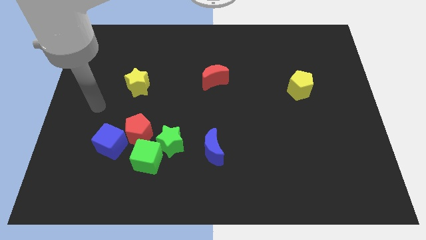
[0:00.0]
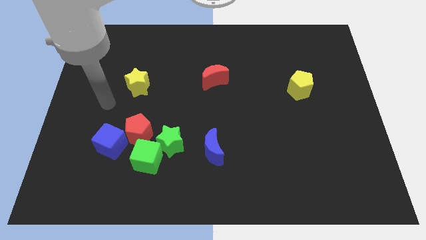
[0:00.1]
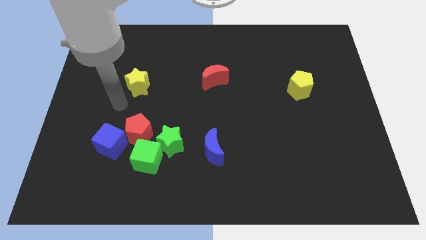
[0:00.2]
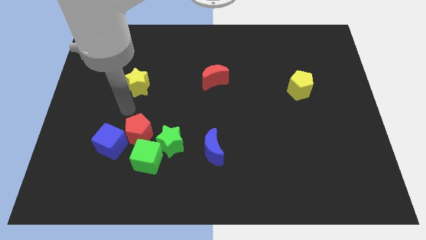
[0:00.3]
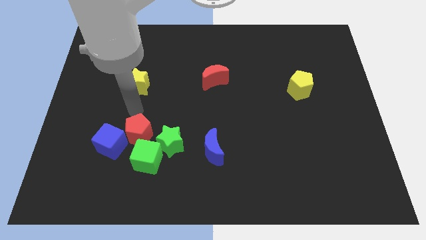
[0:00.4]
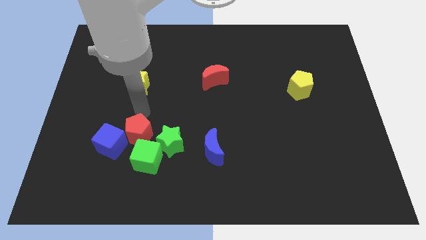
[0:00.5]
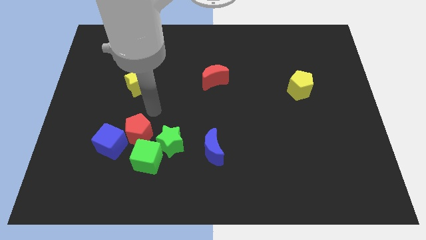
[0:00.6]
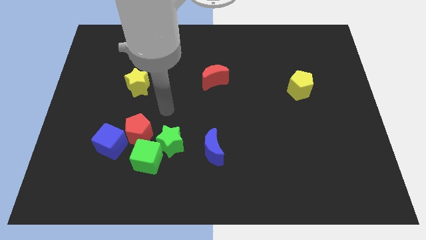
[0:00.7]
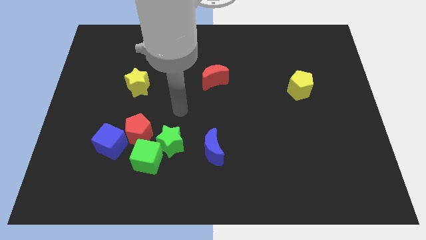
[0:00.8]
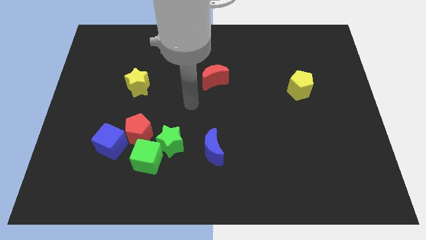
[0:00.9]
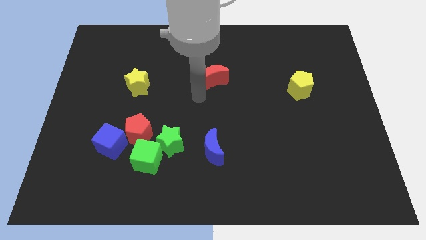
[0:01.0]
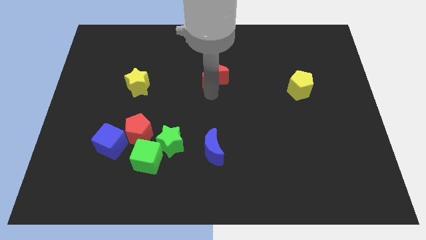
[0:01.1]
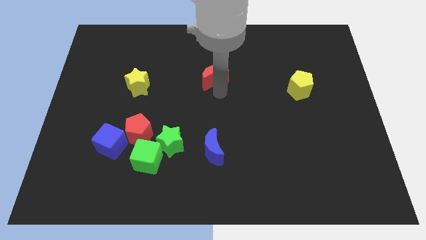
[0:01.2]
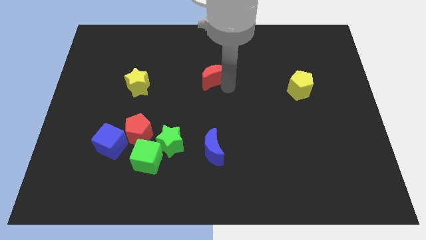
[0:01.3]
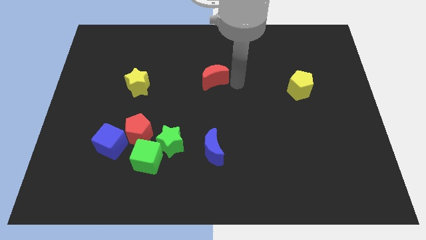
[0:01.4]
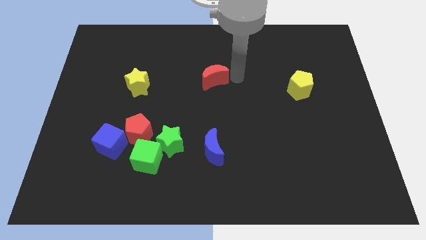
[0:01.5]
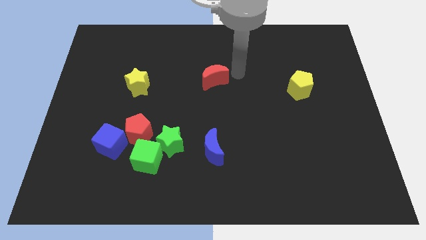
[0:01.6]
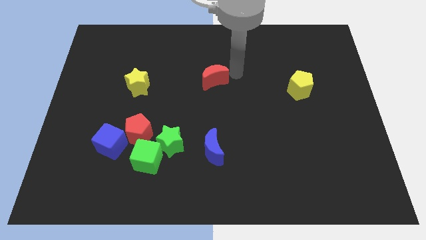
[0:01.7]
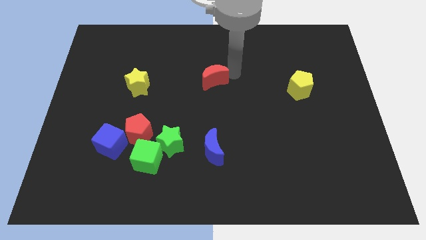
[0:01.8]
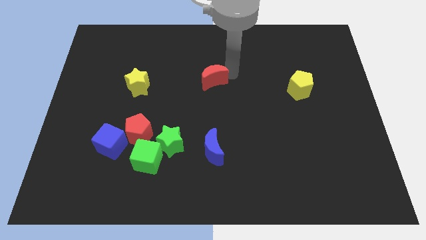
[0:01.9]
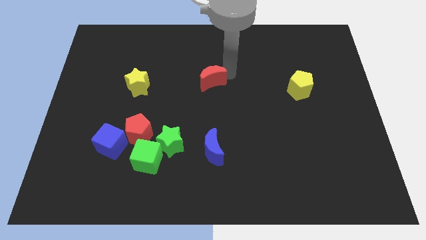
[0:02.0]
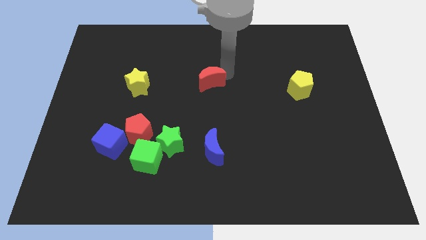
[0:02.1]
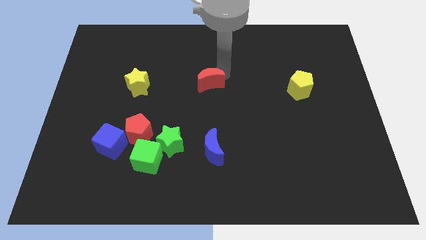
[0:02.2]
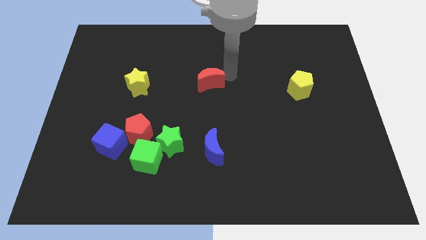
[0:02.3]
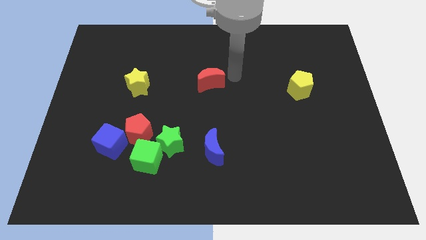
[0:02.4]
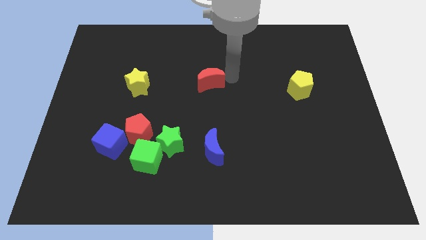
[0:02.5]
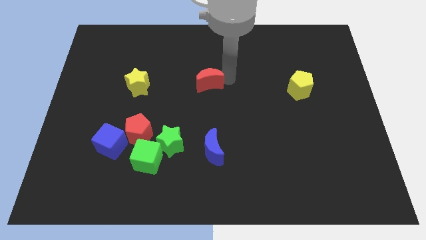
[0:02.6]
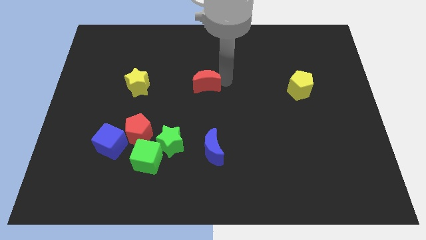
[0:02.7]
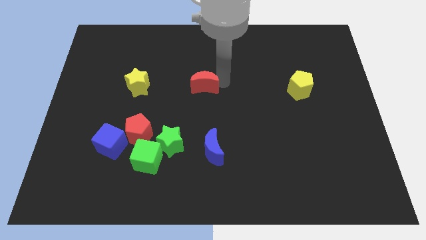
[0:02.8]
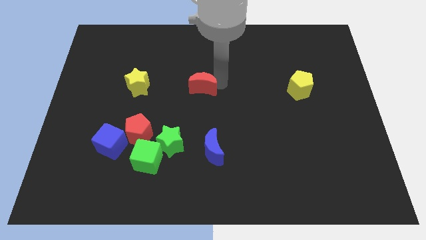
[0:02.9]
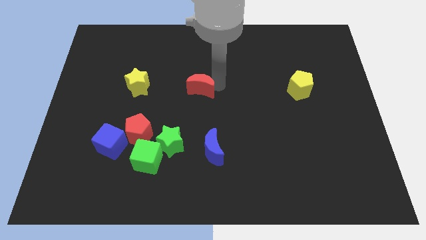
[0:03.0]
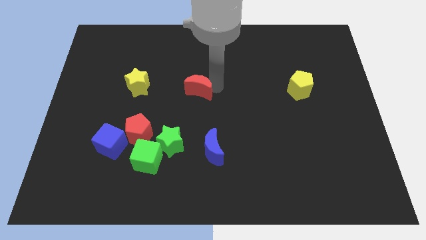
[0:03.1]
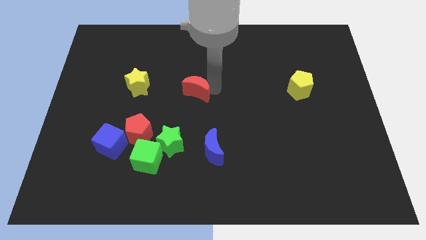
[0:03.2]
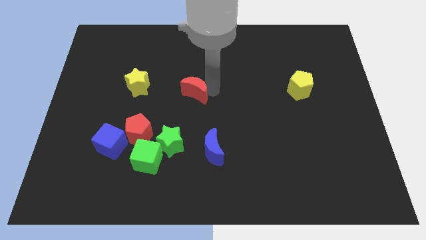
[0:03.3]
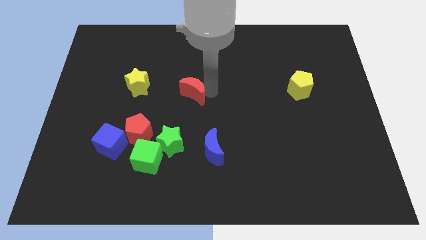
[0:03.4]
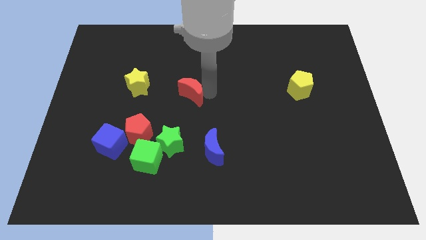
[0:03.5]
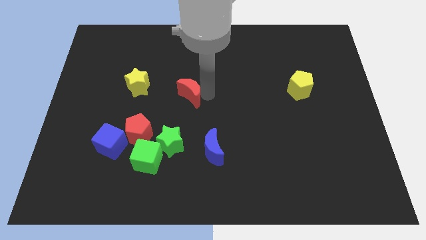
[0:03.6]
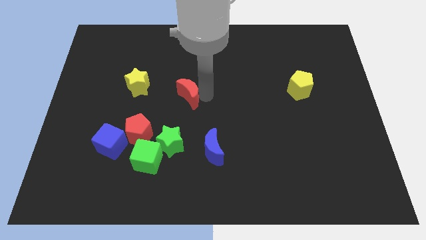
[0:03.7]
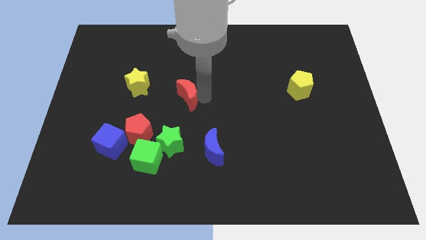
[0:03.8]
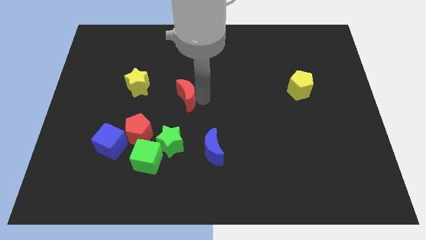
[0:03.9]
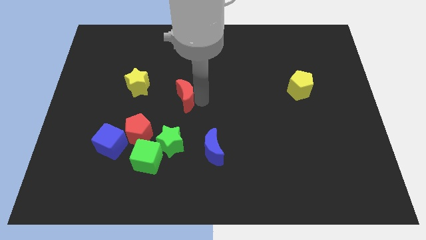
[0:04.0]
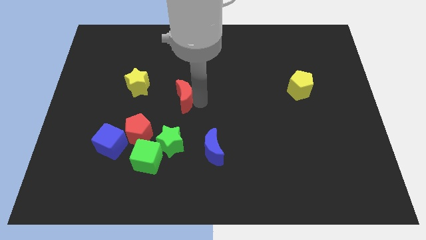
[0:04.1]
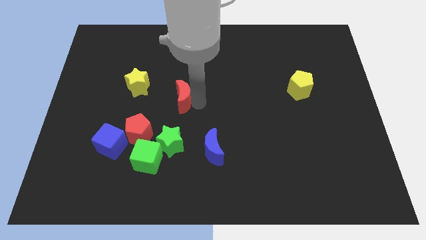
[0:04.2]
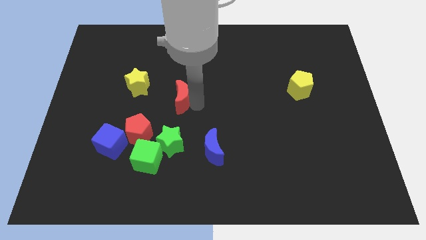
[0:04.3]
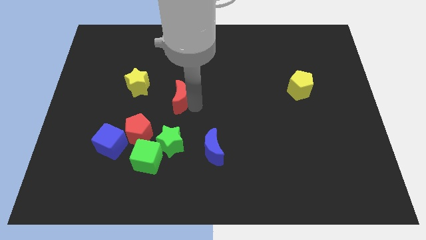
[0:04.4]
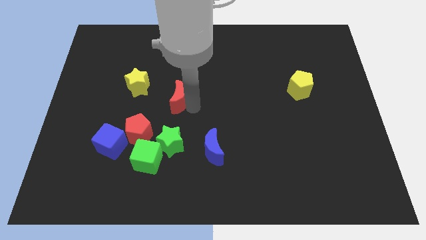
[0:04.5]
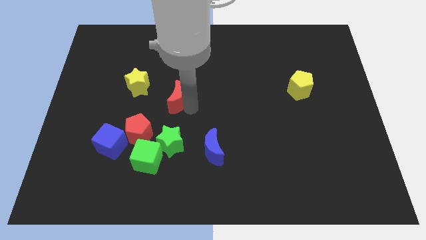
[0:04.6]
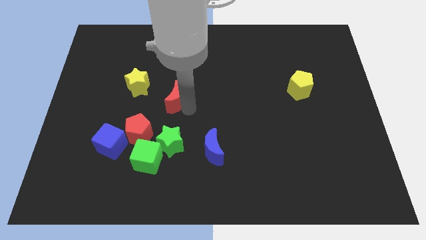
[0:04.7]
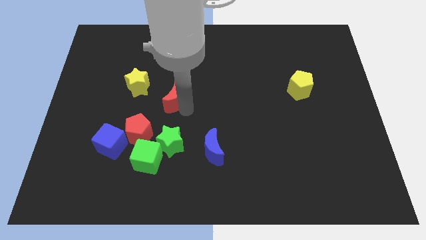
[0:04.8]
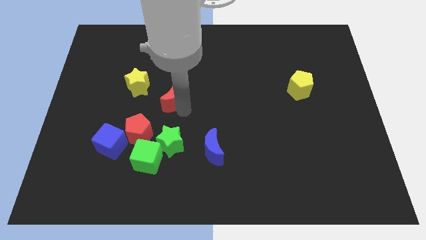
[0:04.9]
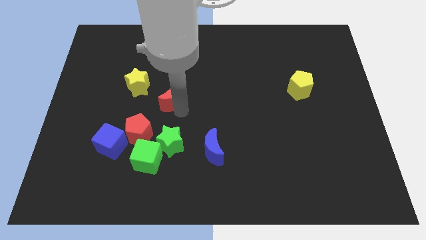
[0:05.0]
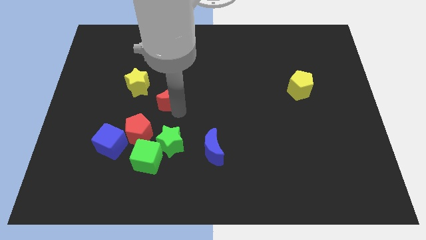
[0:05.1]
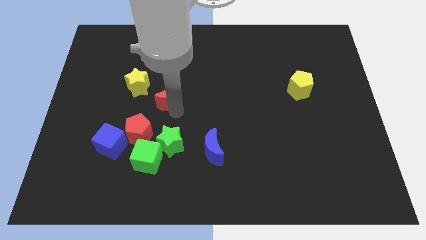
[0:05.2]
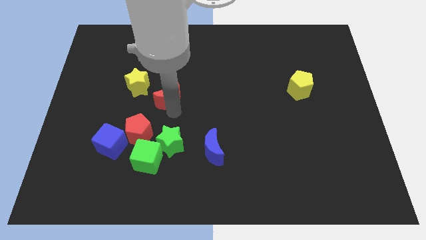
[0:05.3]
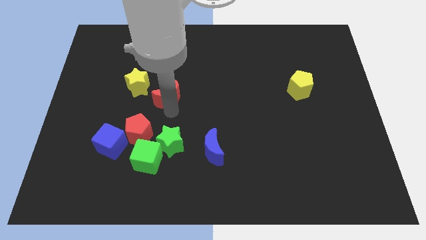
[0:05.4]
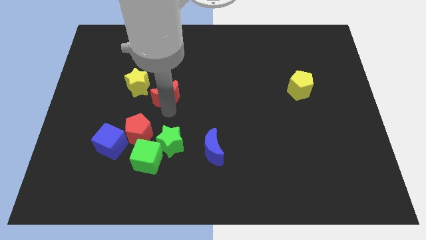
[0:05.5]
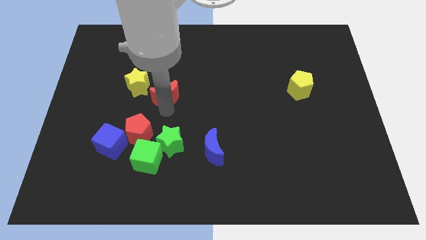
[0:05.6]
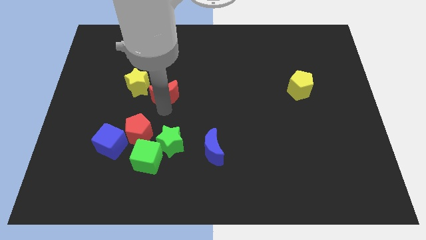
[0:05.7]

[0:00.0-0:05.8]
put the red moon to the top of the red pentagon

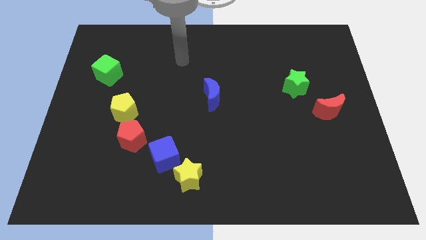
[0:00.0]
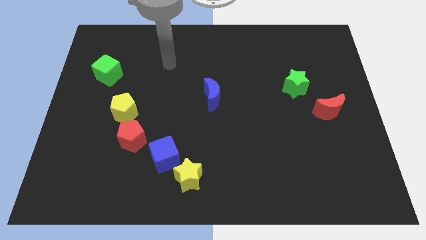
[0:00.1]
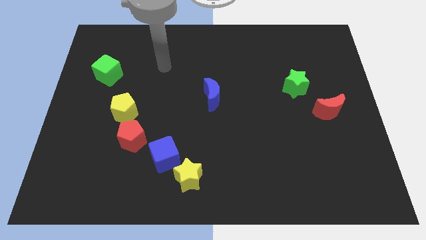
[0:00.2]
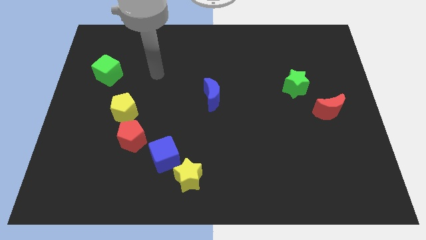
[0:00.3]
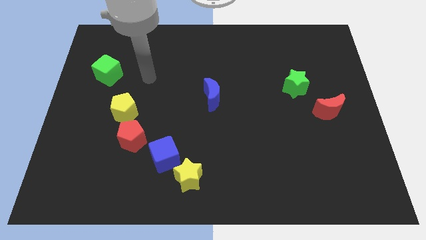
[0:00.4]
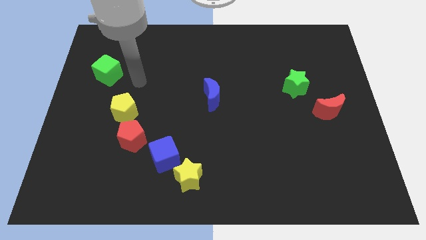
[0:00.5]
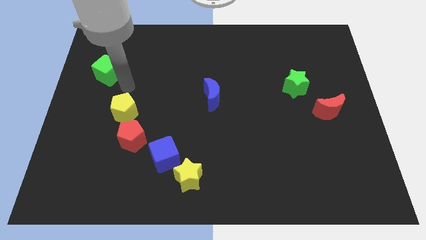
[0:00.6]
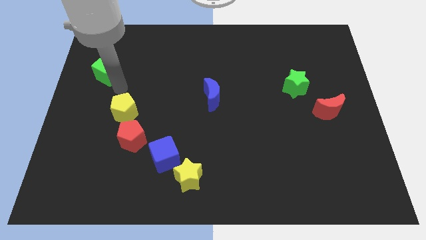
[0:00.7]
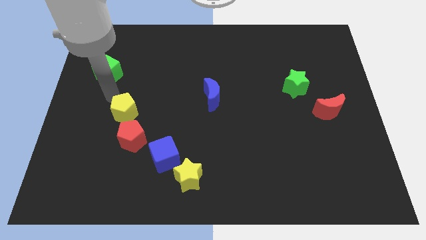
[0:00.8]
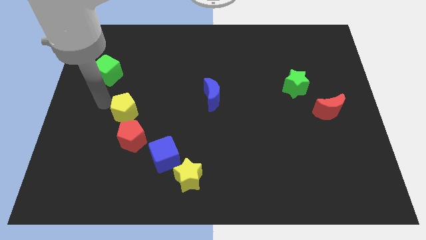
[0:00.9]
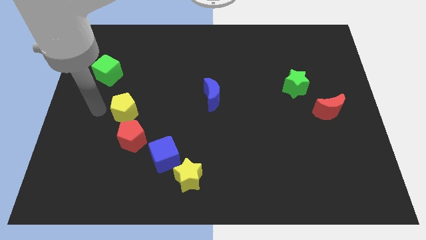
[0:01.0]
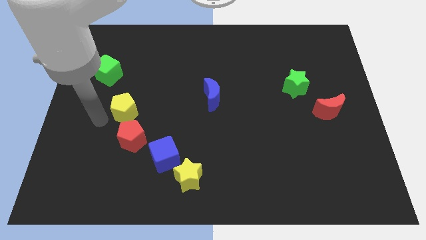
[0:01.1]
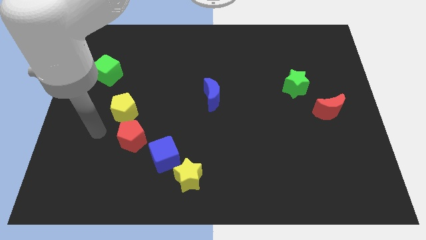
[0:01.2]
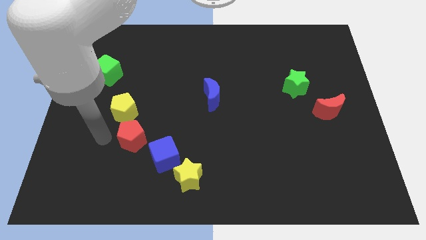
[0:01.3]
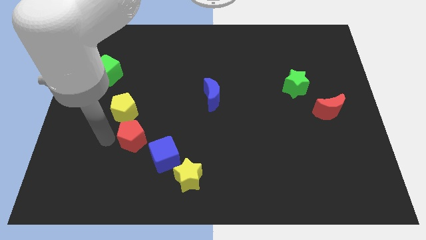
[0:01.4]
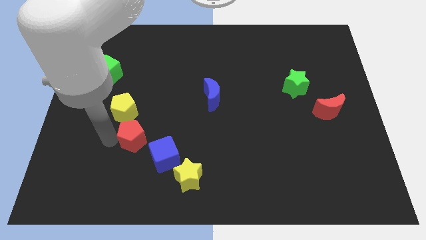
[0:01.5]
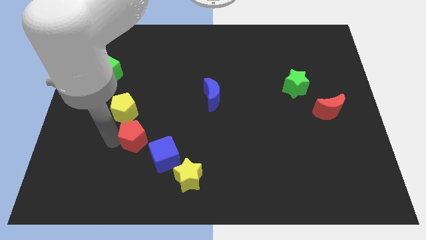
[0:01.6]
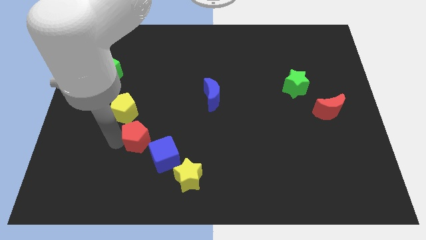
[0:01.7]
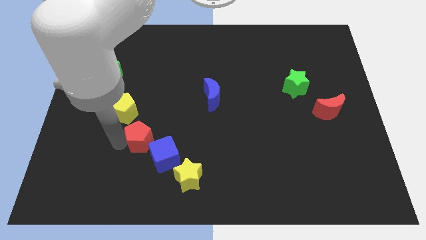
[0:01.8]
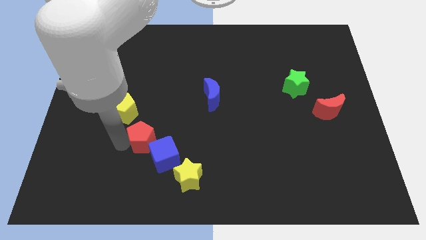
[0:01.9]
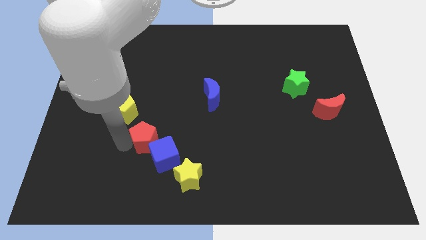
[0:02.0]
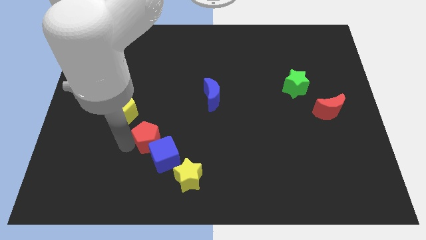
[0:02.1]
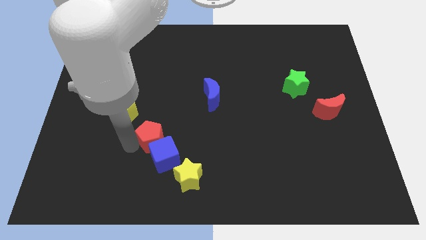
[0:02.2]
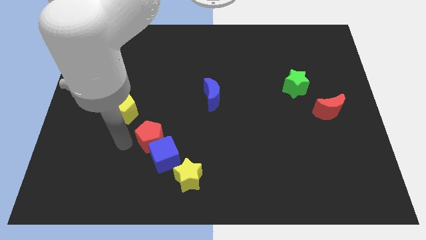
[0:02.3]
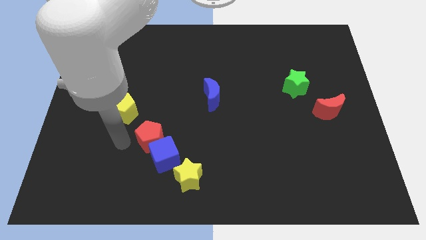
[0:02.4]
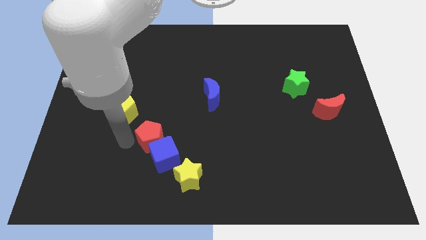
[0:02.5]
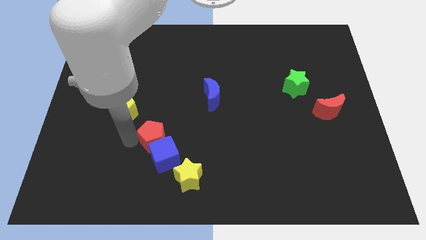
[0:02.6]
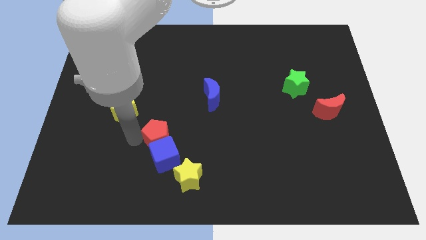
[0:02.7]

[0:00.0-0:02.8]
push the red pentagon diagonally up and to the right of the blue cube

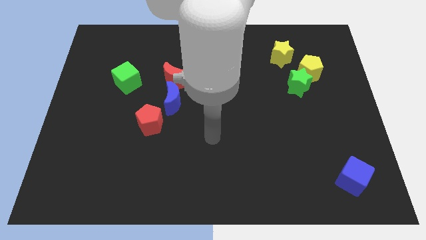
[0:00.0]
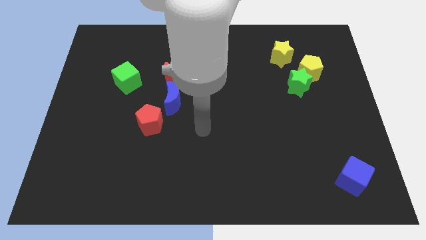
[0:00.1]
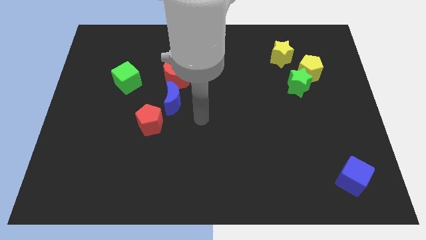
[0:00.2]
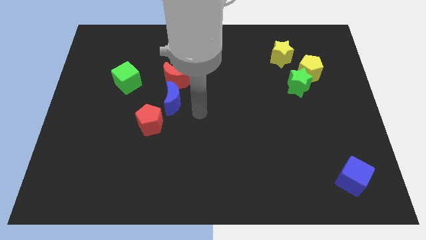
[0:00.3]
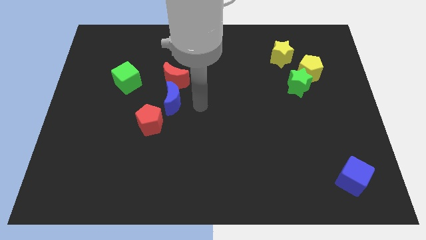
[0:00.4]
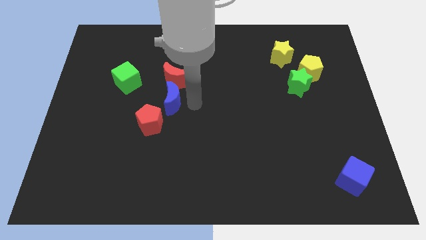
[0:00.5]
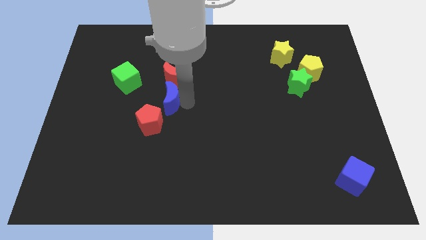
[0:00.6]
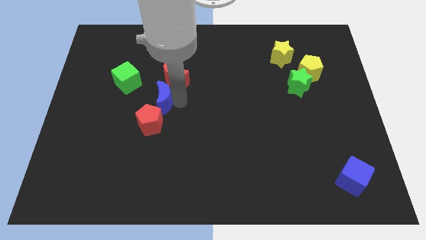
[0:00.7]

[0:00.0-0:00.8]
slide the blue moon diagonally down and to the right of the green cube
